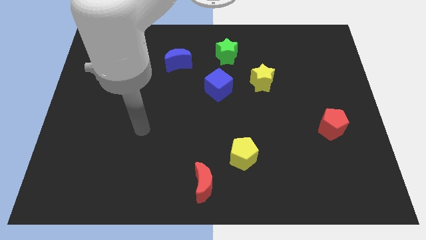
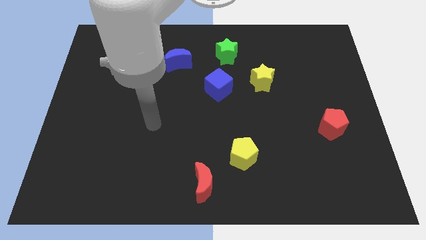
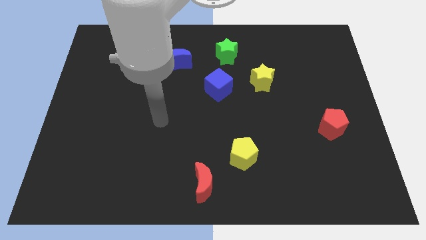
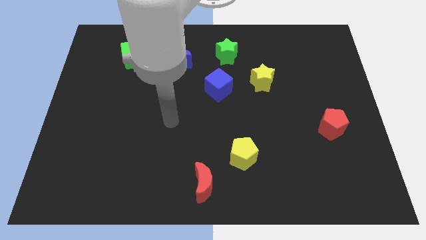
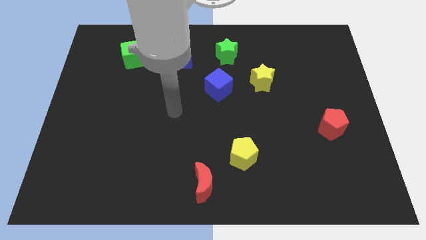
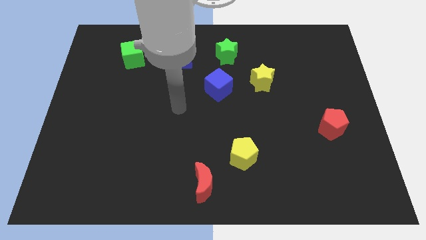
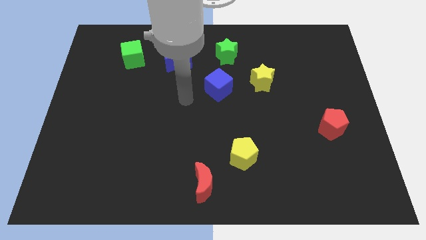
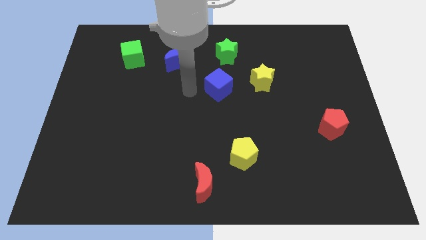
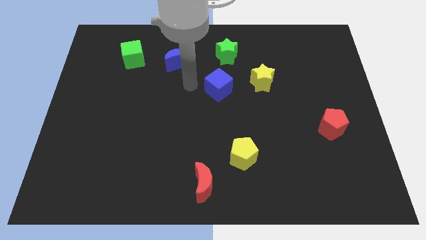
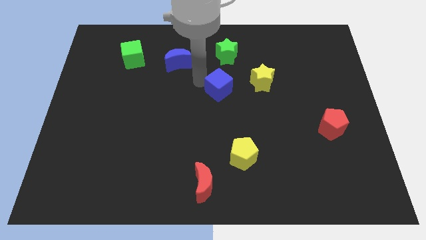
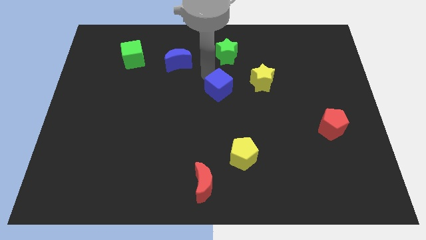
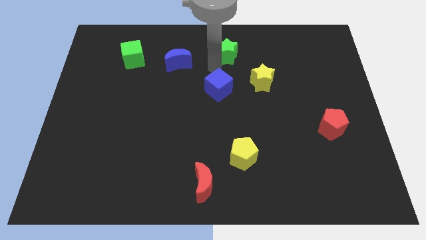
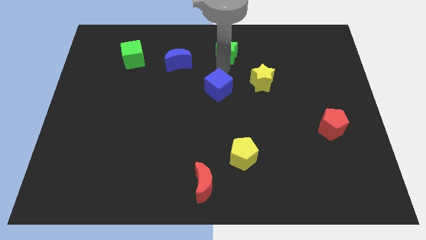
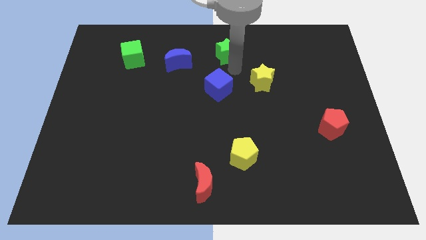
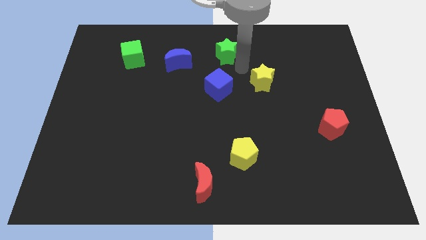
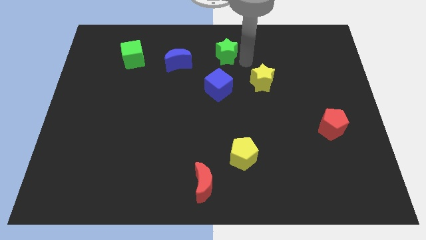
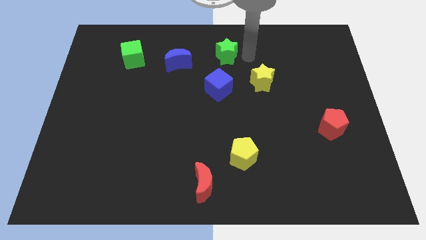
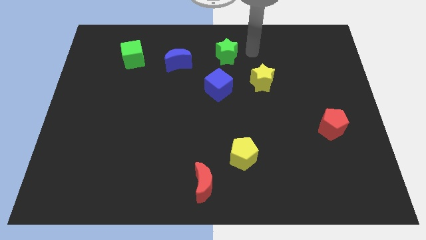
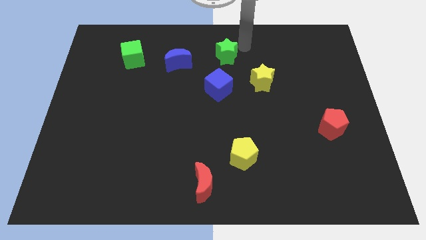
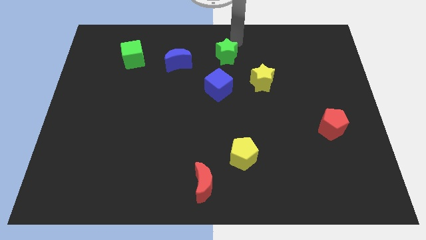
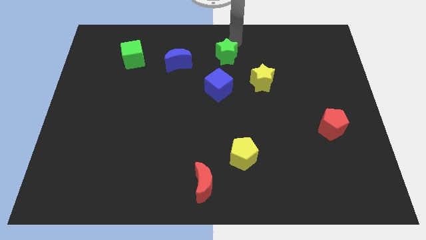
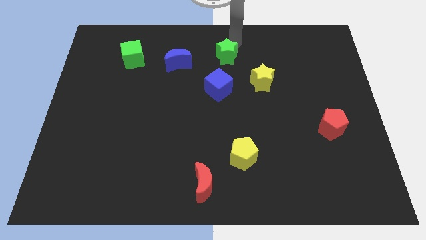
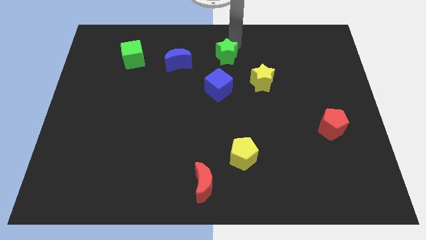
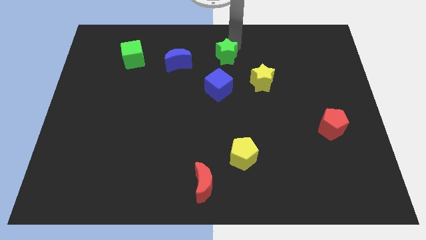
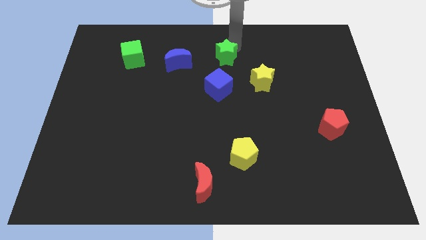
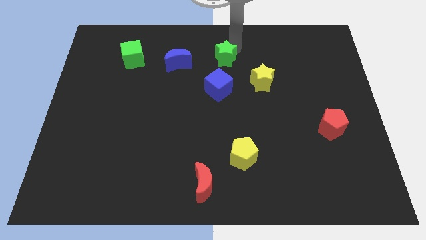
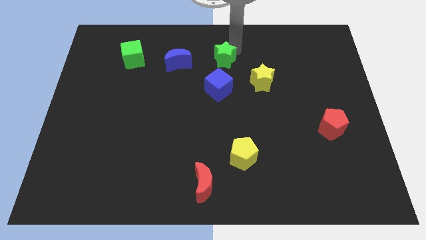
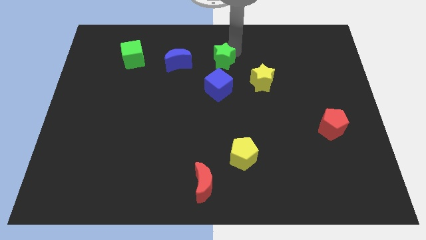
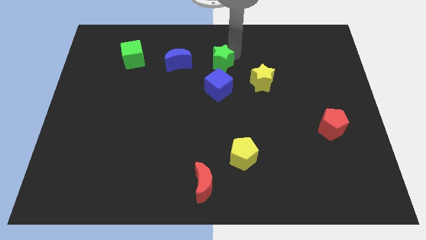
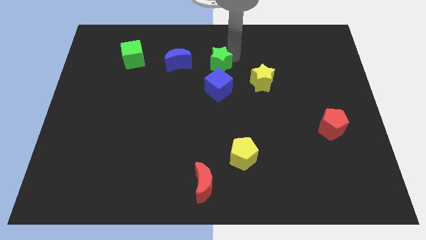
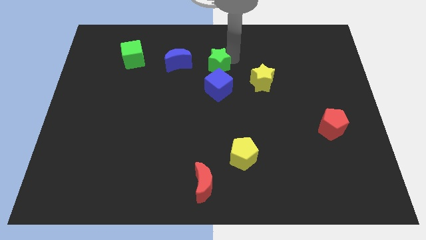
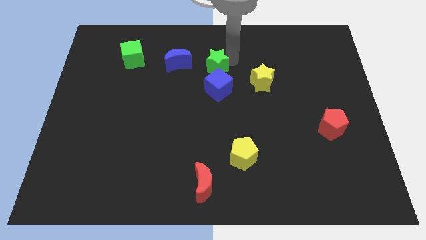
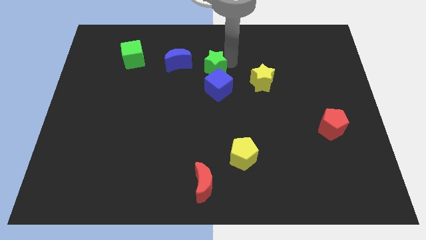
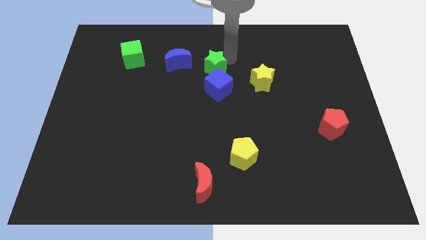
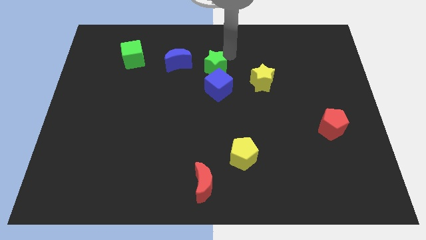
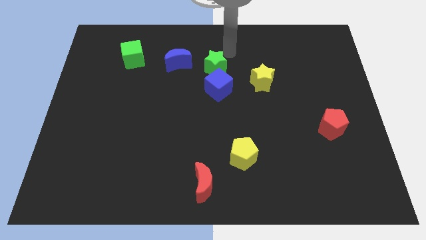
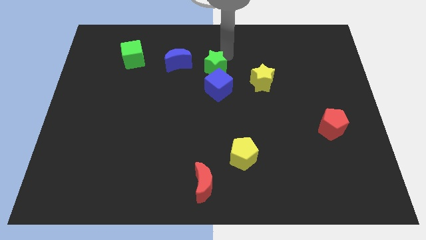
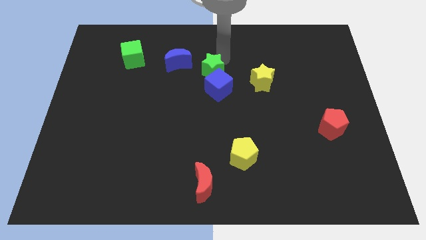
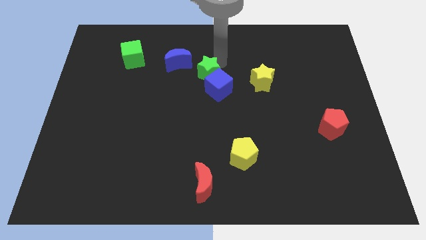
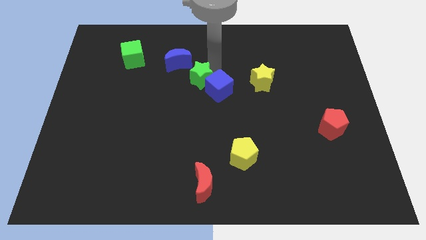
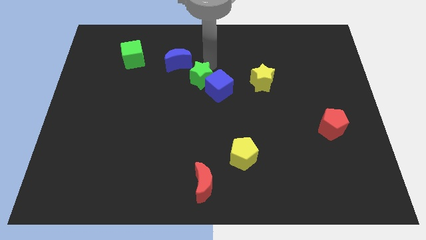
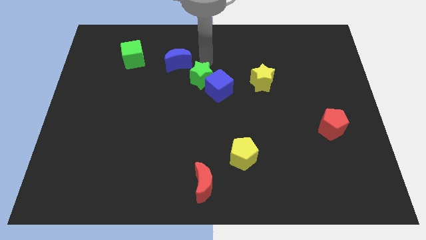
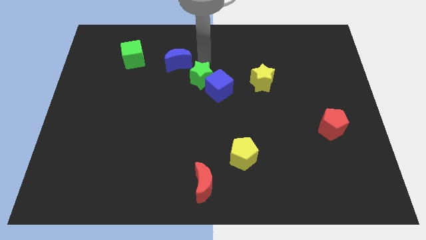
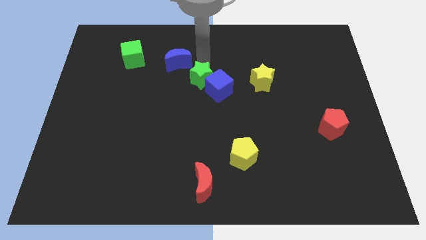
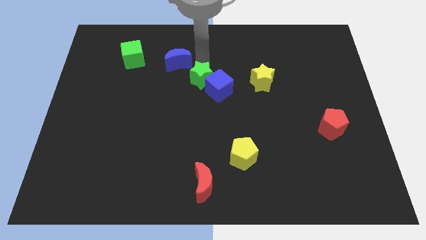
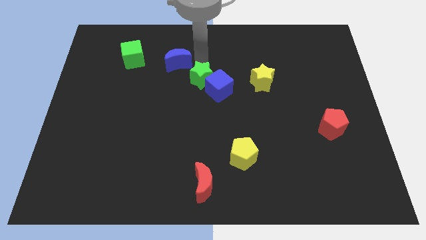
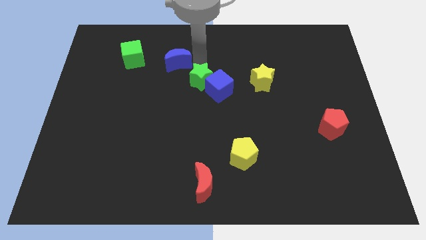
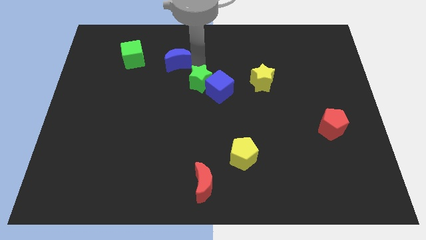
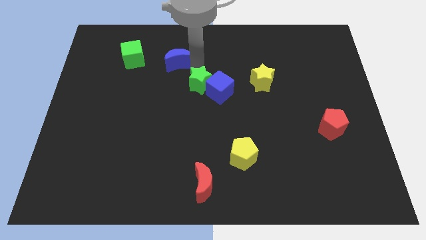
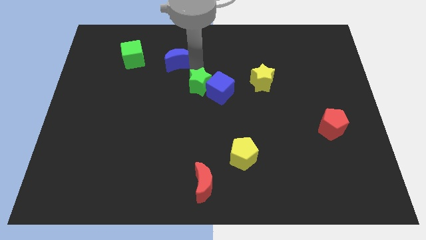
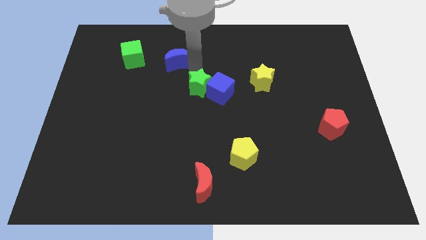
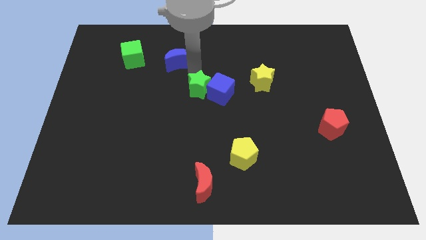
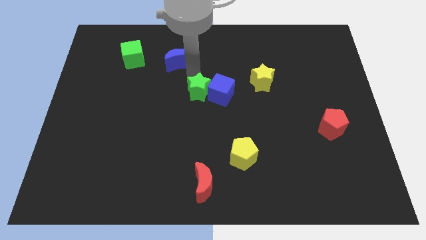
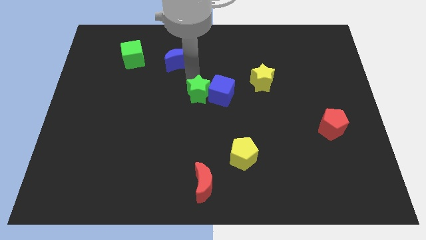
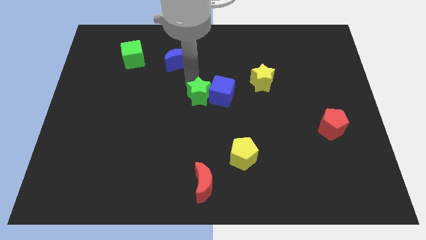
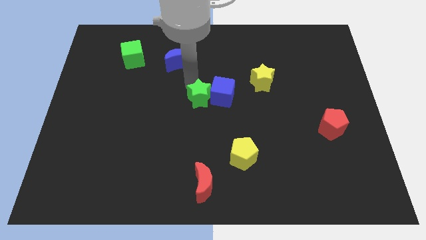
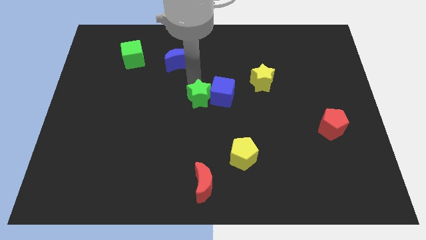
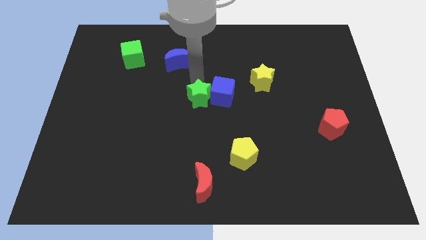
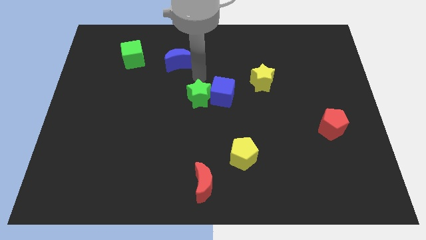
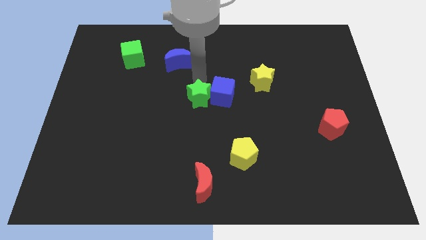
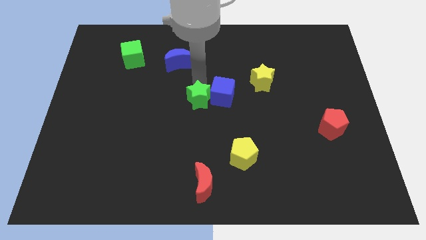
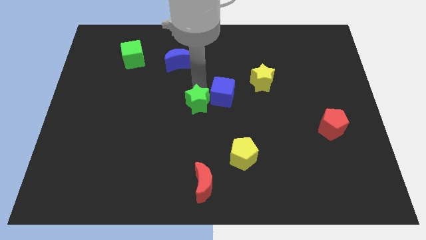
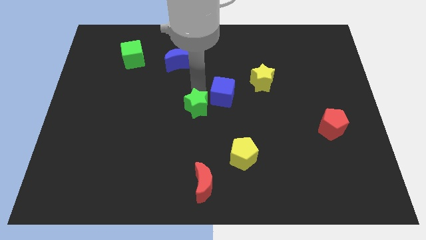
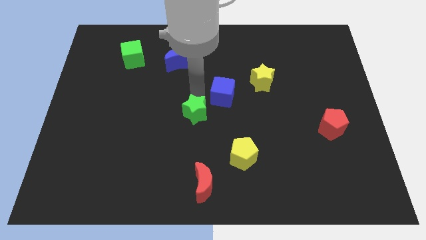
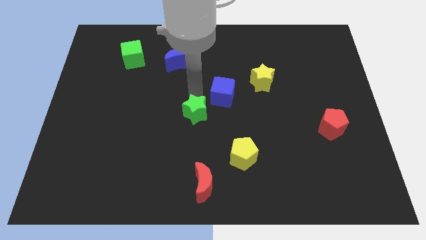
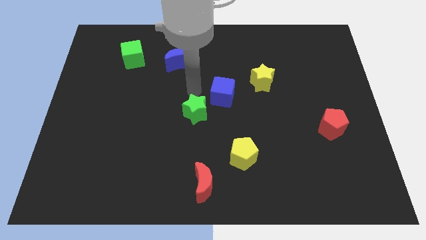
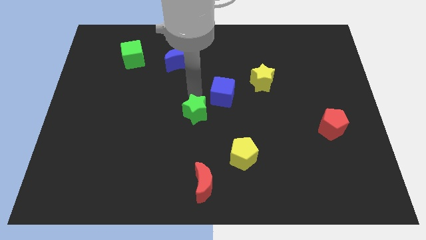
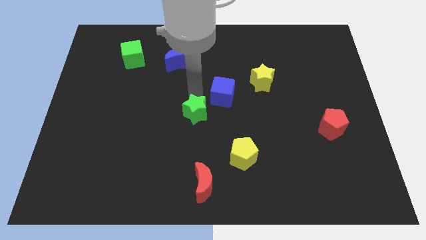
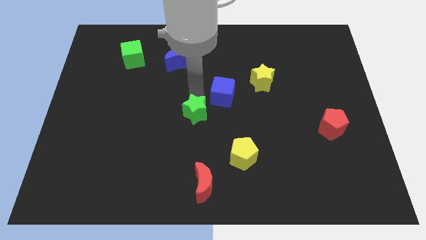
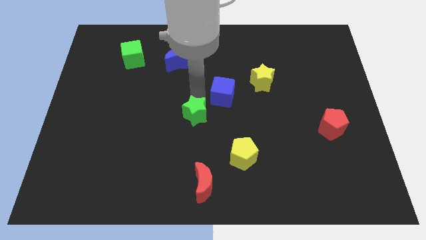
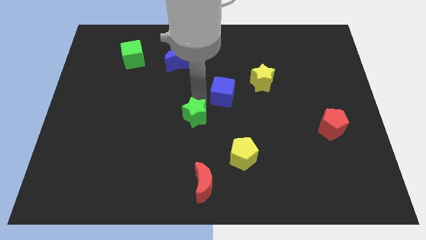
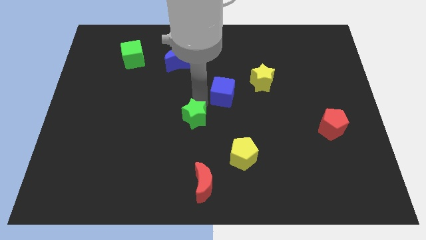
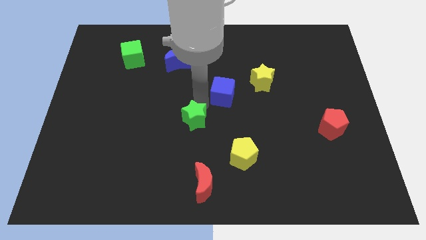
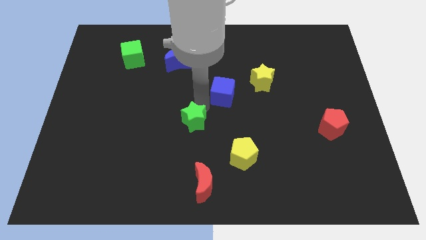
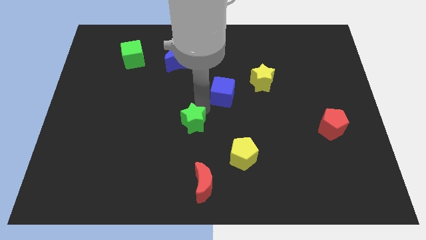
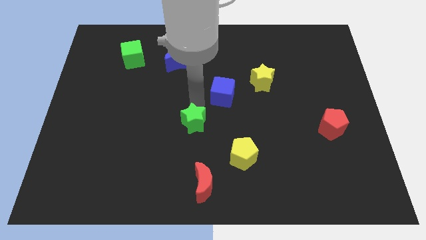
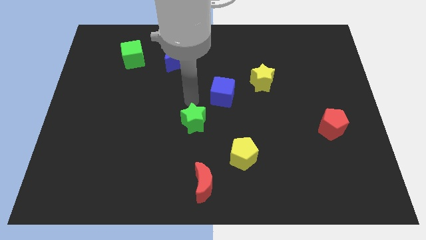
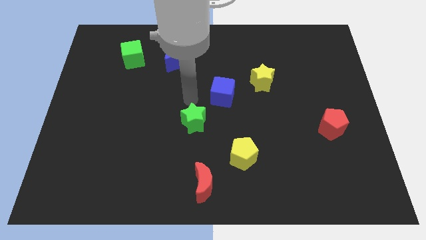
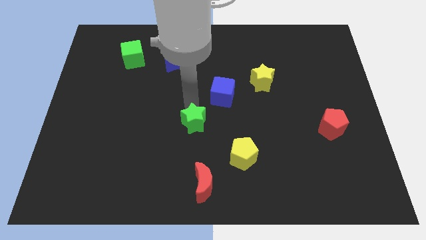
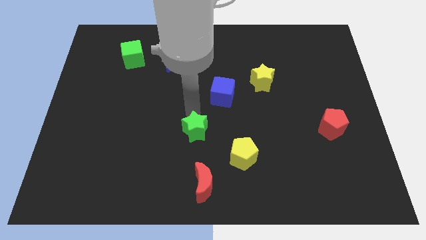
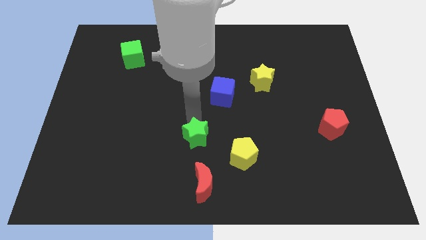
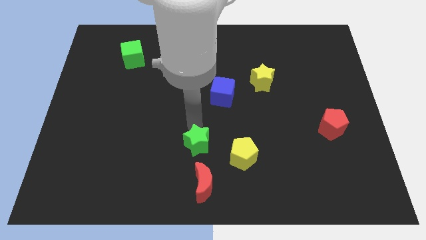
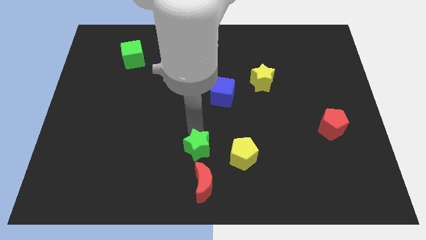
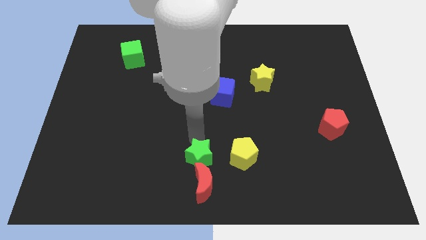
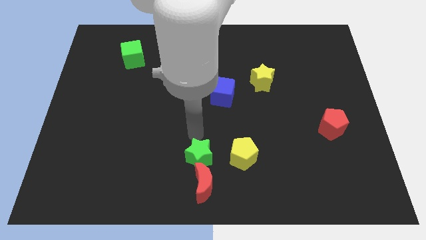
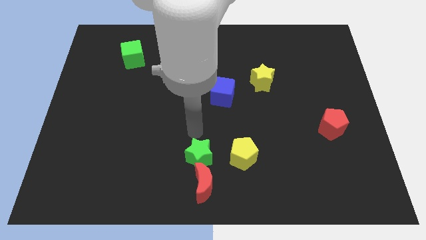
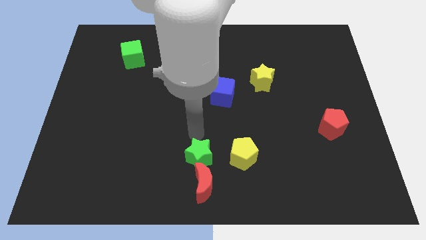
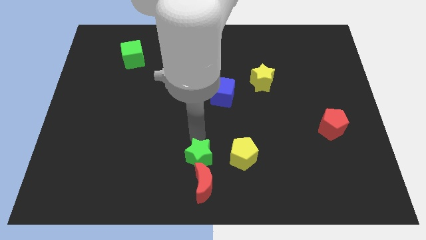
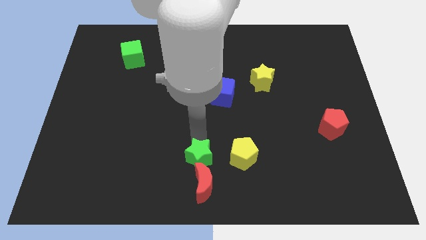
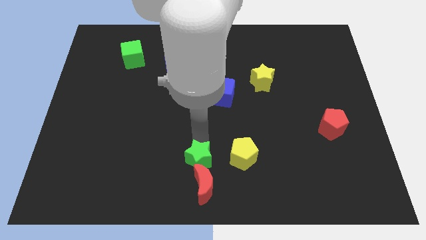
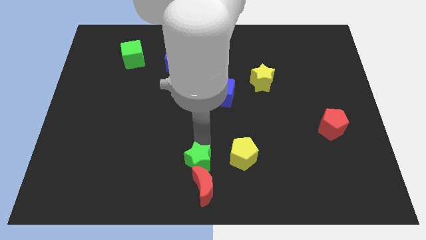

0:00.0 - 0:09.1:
push the green star to the red moon
